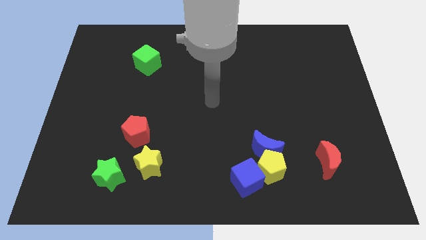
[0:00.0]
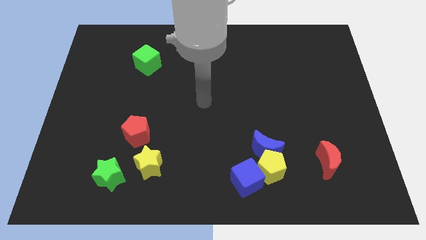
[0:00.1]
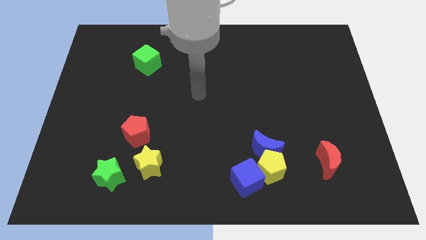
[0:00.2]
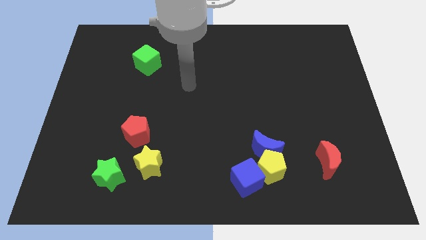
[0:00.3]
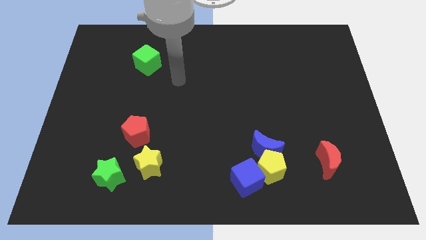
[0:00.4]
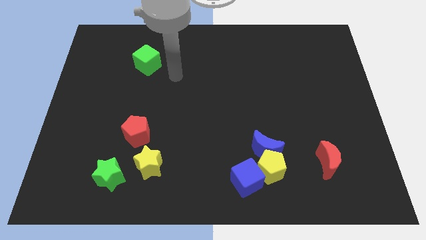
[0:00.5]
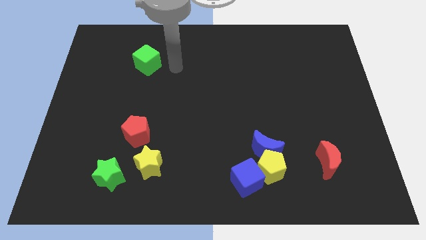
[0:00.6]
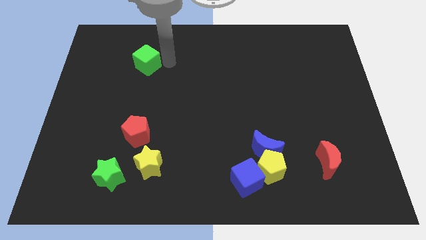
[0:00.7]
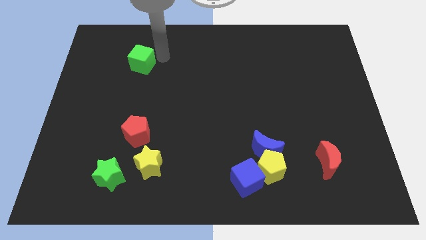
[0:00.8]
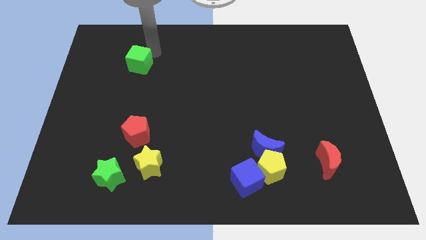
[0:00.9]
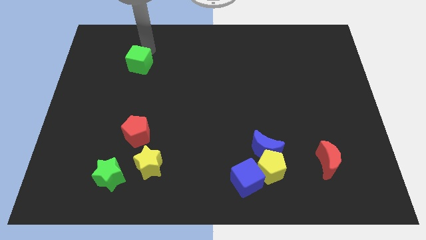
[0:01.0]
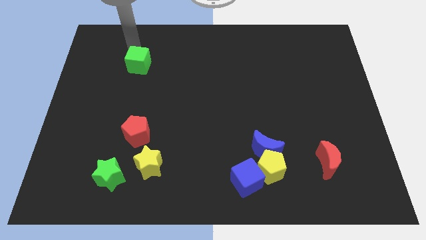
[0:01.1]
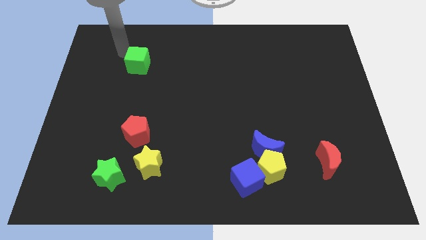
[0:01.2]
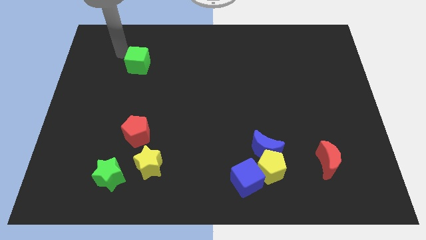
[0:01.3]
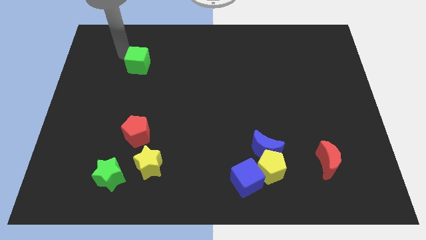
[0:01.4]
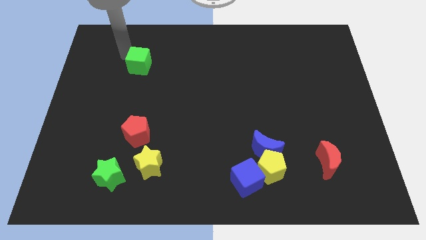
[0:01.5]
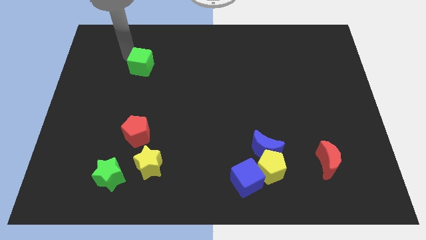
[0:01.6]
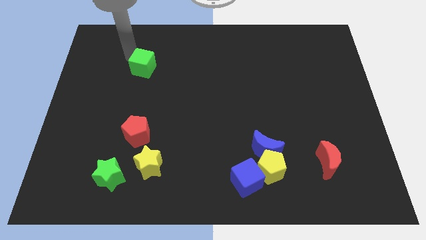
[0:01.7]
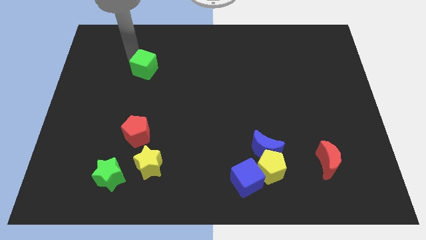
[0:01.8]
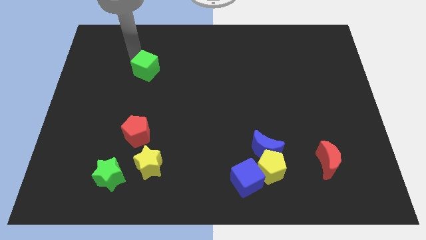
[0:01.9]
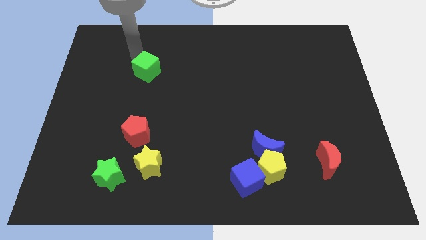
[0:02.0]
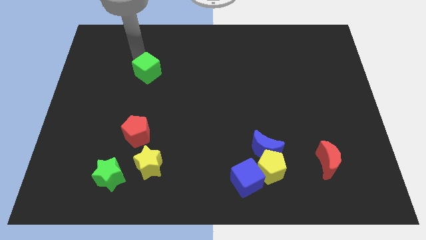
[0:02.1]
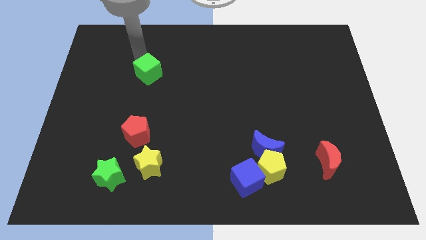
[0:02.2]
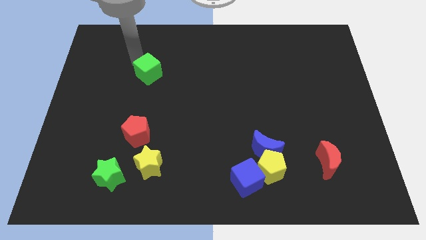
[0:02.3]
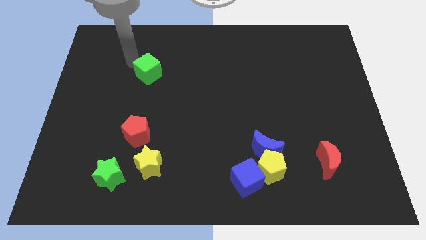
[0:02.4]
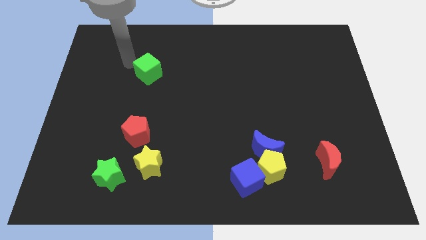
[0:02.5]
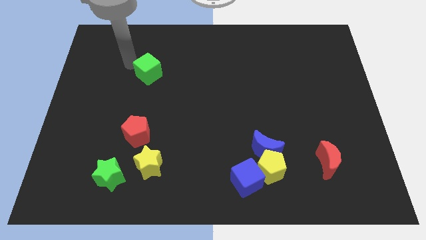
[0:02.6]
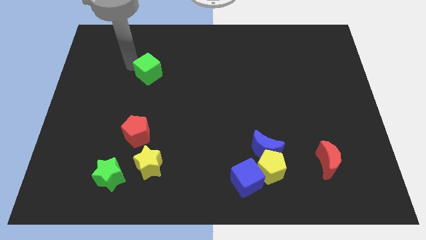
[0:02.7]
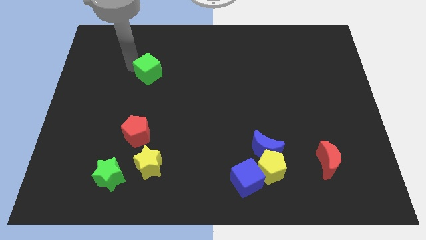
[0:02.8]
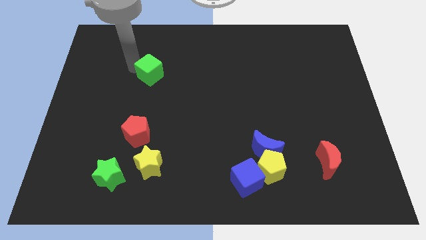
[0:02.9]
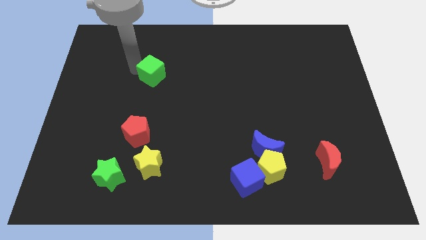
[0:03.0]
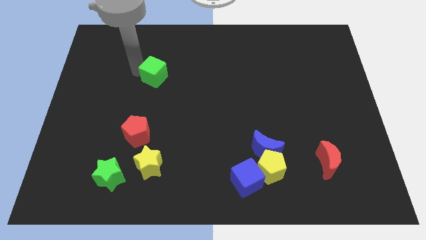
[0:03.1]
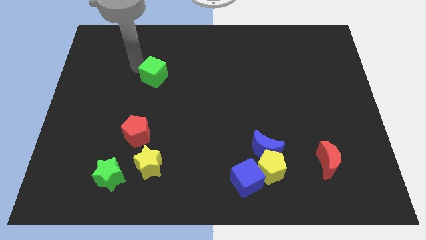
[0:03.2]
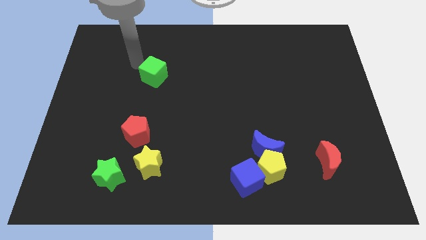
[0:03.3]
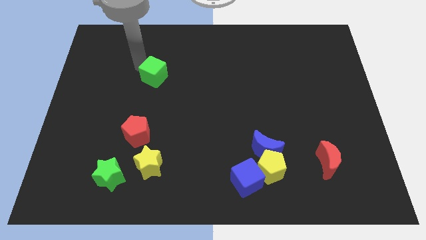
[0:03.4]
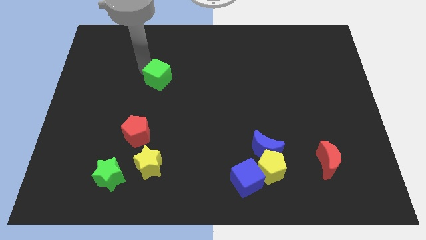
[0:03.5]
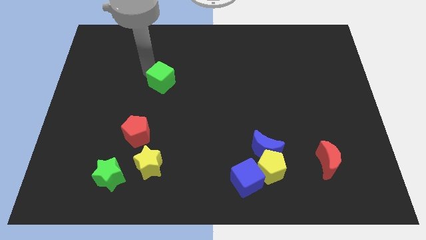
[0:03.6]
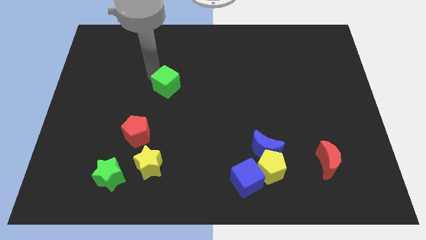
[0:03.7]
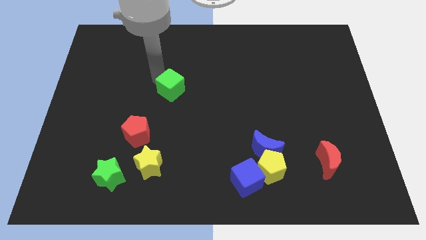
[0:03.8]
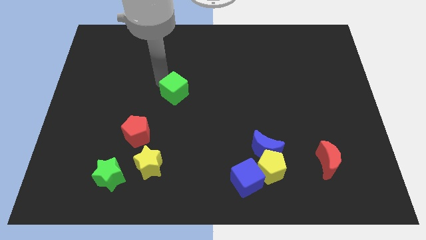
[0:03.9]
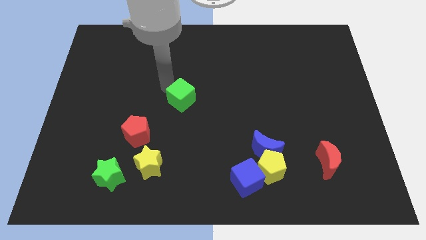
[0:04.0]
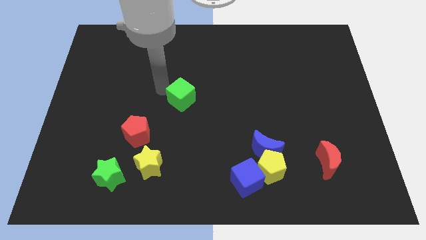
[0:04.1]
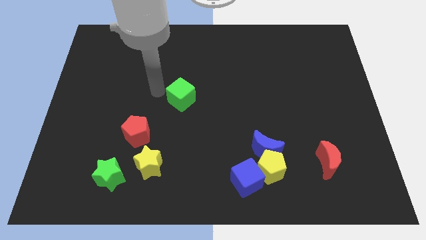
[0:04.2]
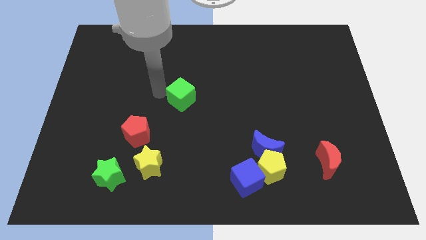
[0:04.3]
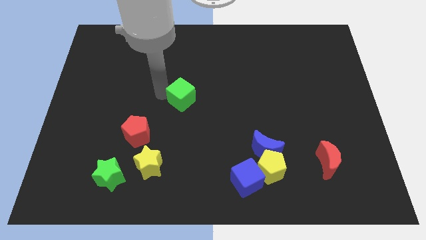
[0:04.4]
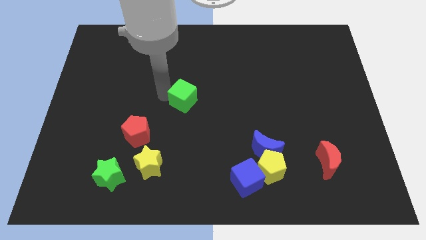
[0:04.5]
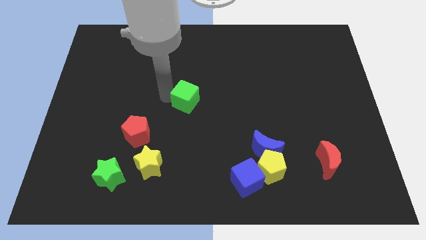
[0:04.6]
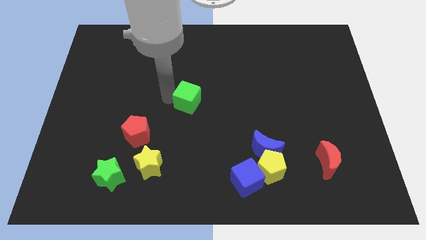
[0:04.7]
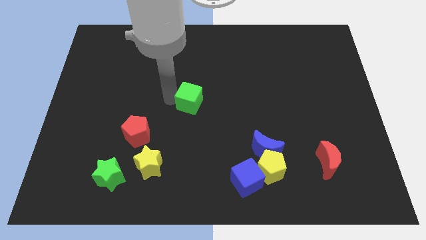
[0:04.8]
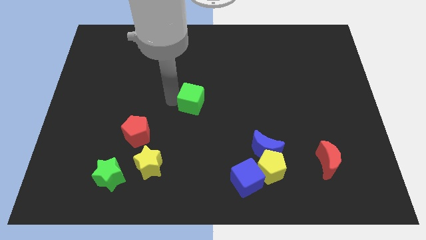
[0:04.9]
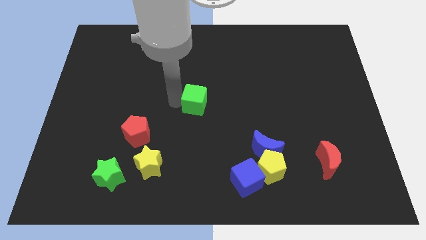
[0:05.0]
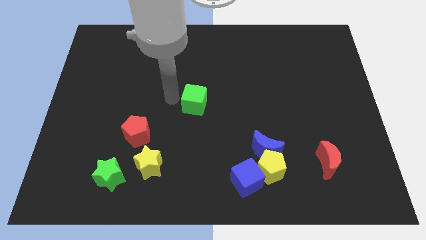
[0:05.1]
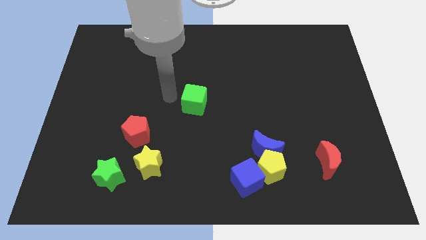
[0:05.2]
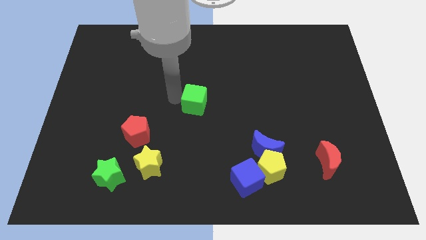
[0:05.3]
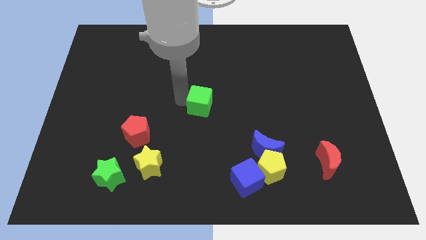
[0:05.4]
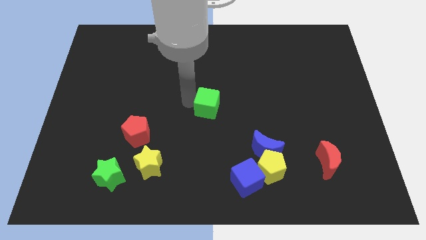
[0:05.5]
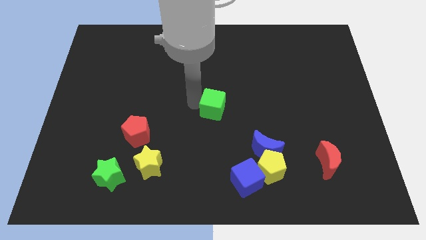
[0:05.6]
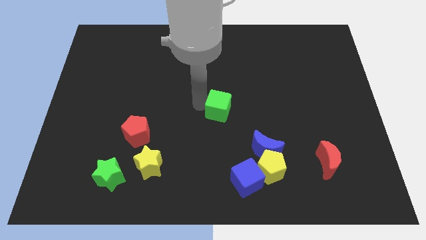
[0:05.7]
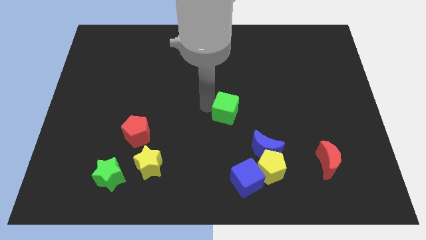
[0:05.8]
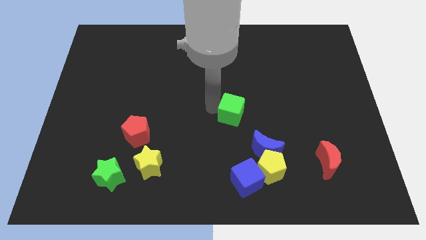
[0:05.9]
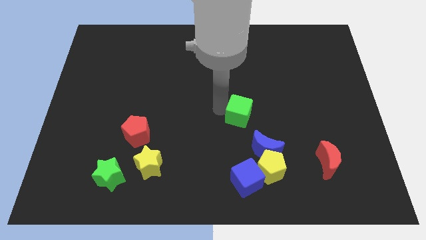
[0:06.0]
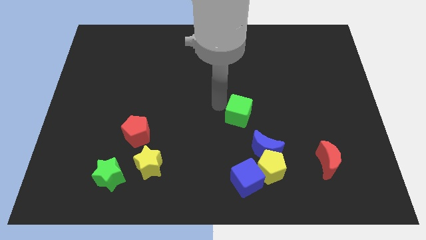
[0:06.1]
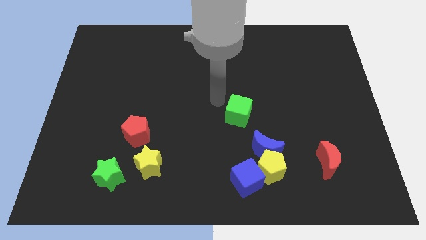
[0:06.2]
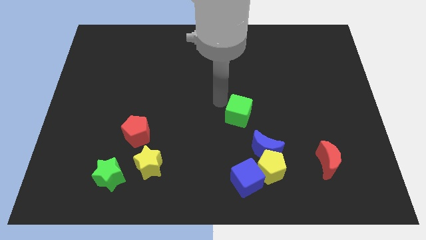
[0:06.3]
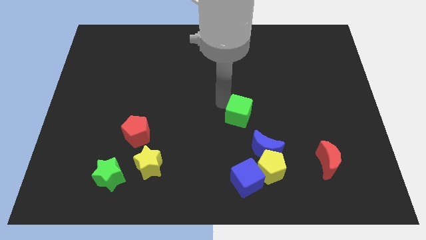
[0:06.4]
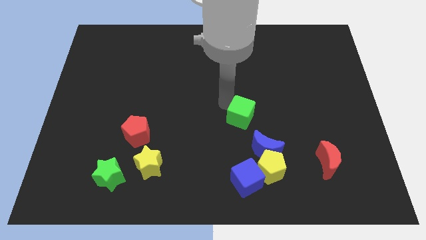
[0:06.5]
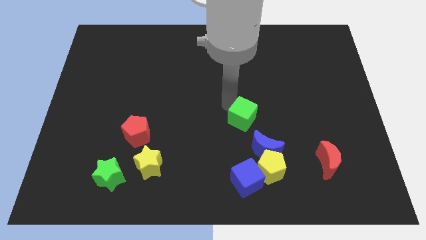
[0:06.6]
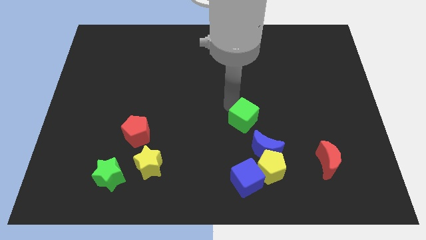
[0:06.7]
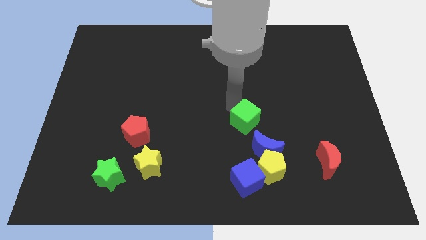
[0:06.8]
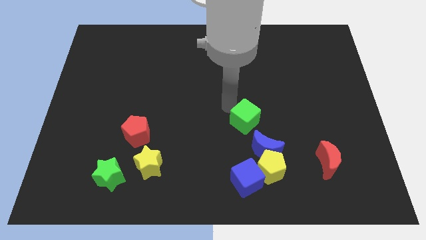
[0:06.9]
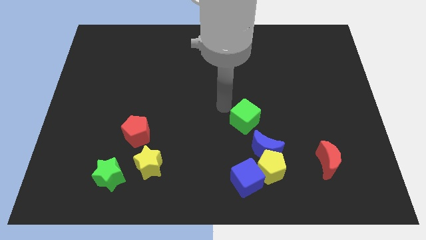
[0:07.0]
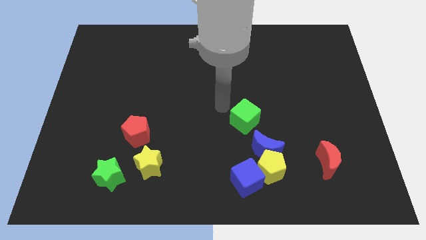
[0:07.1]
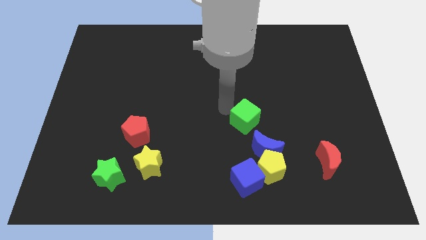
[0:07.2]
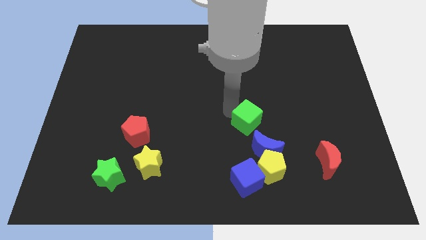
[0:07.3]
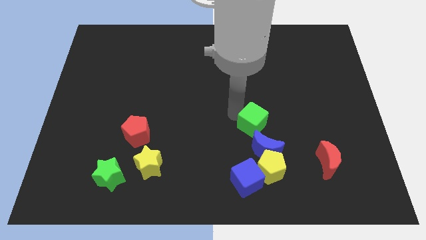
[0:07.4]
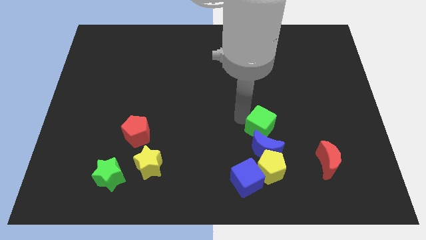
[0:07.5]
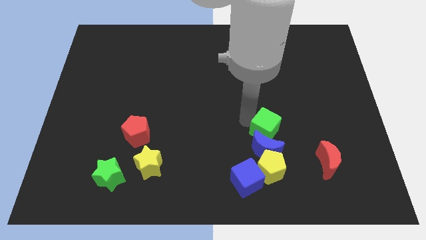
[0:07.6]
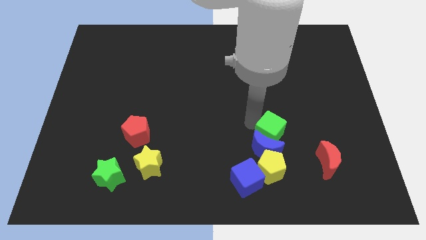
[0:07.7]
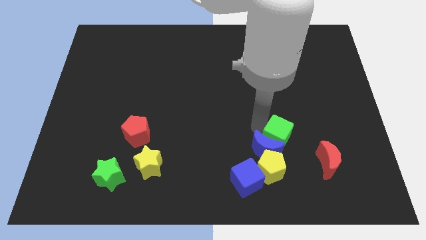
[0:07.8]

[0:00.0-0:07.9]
move the green cube diagonally up and to the left of the red moon
